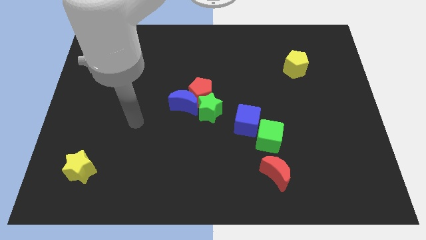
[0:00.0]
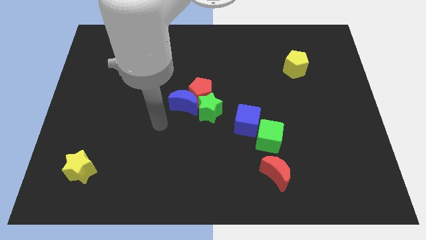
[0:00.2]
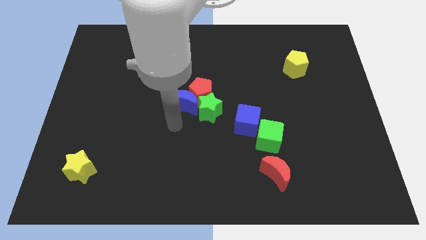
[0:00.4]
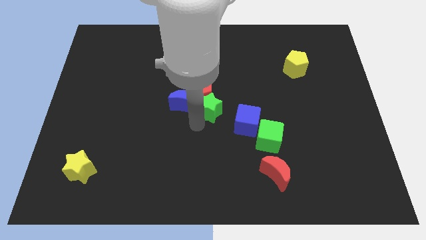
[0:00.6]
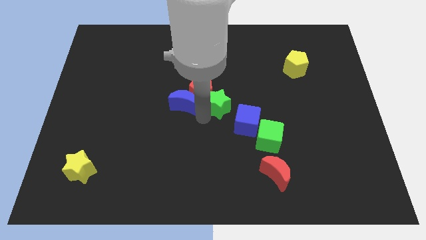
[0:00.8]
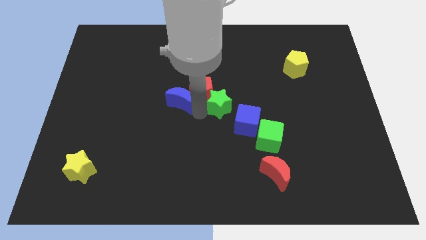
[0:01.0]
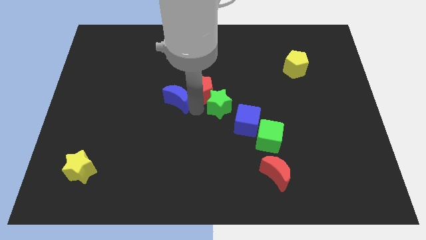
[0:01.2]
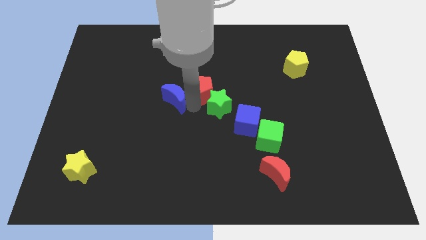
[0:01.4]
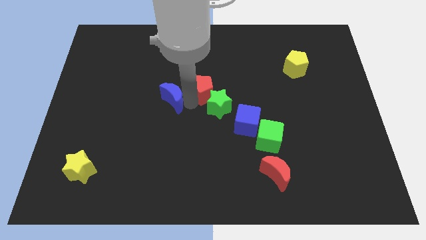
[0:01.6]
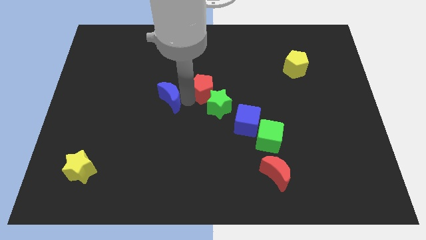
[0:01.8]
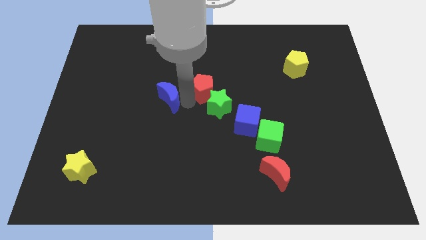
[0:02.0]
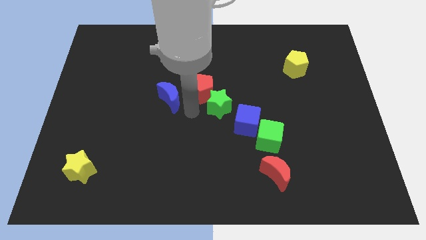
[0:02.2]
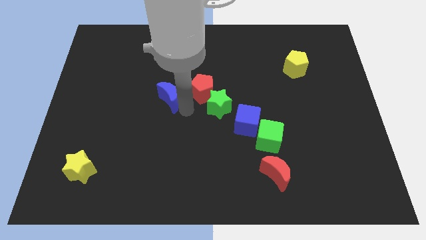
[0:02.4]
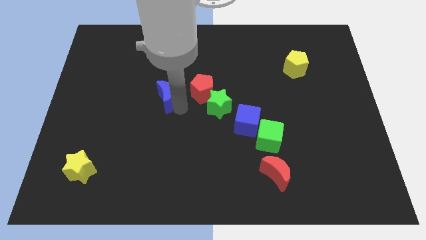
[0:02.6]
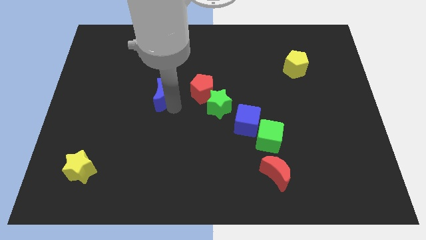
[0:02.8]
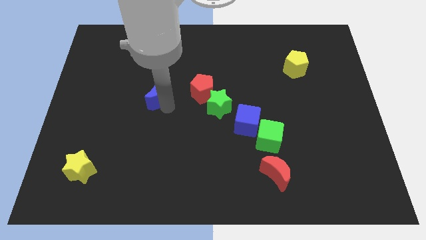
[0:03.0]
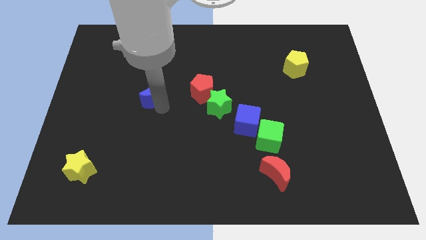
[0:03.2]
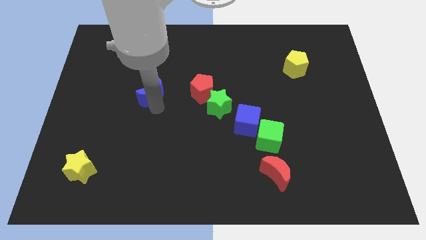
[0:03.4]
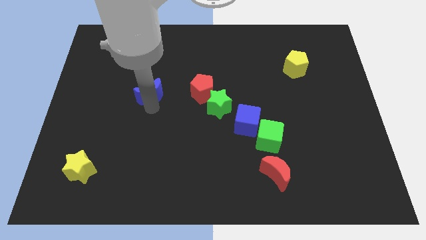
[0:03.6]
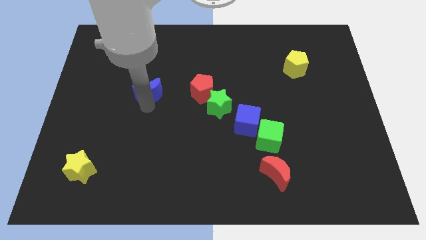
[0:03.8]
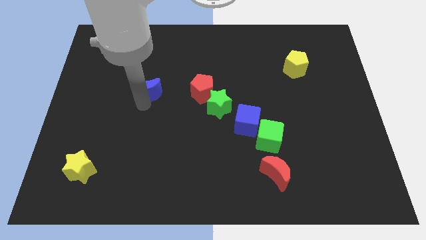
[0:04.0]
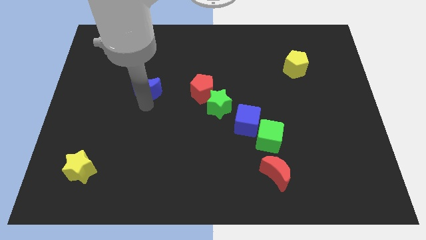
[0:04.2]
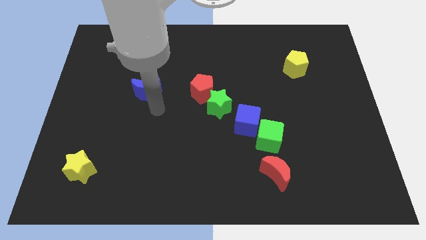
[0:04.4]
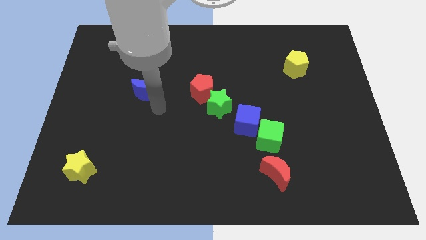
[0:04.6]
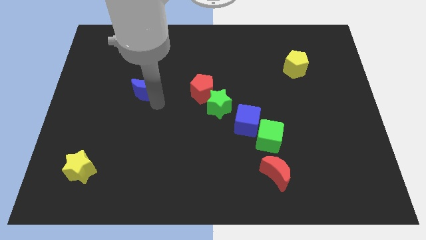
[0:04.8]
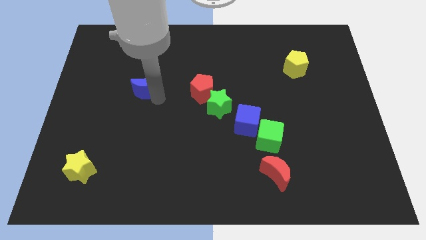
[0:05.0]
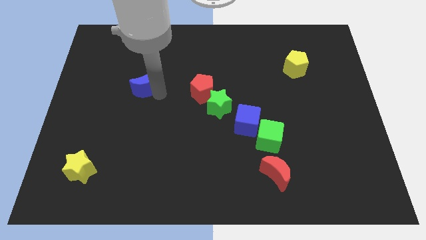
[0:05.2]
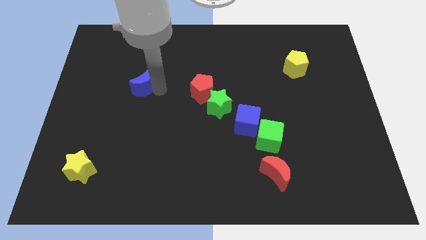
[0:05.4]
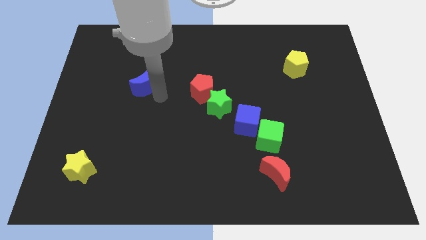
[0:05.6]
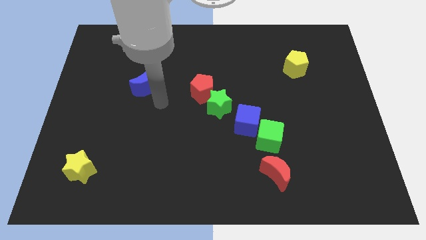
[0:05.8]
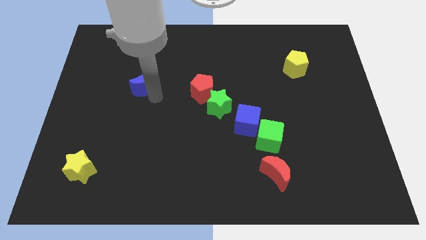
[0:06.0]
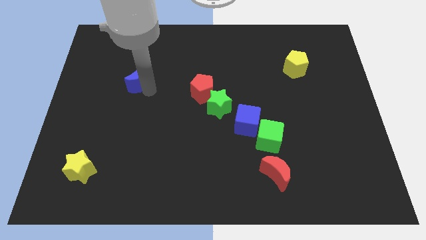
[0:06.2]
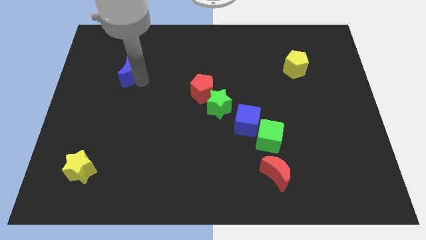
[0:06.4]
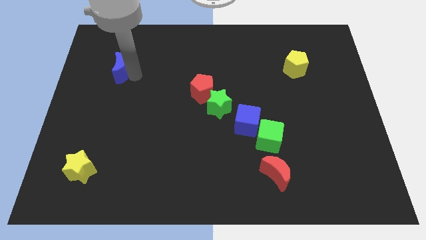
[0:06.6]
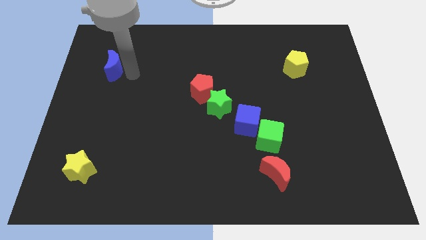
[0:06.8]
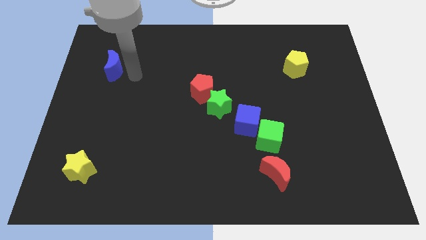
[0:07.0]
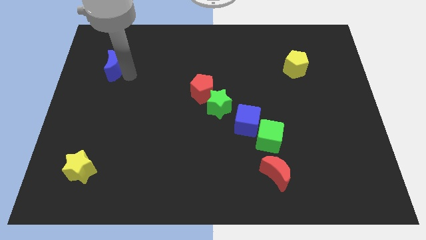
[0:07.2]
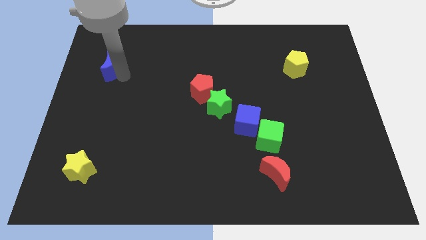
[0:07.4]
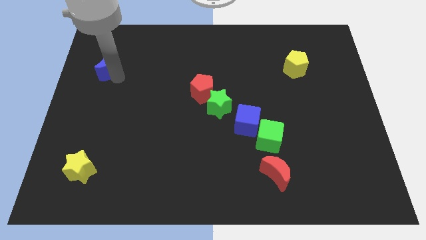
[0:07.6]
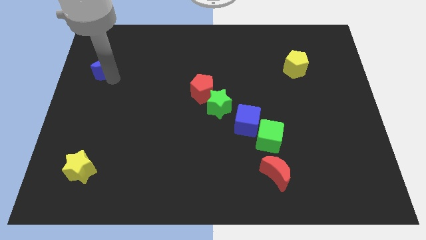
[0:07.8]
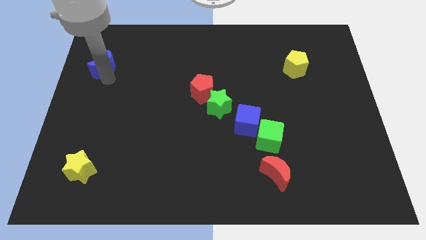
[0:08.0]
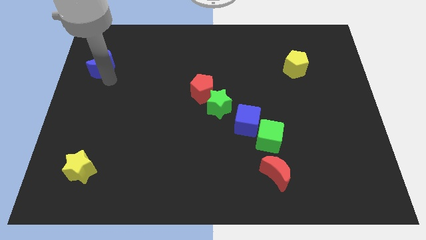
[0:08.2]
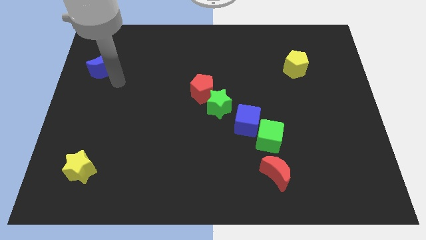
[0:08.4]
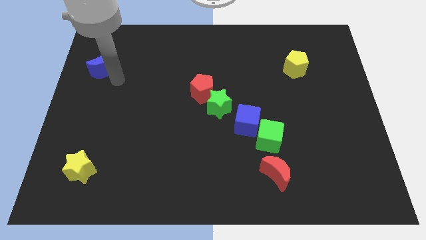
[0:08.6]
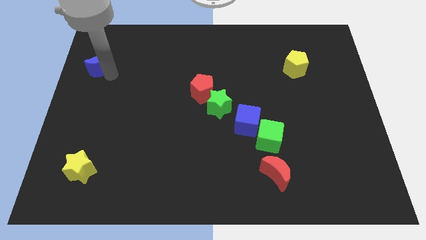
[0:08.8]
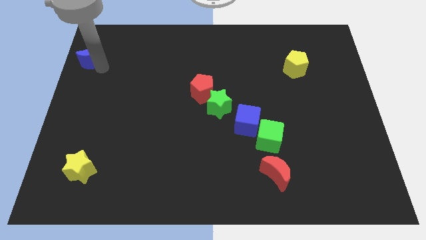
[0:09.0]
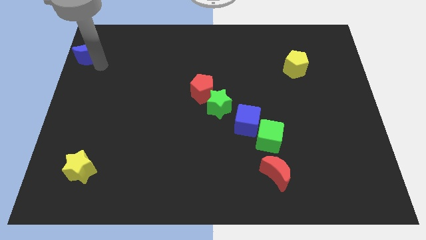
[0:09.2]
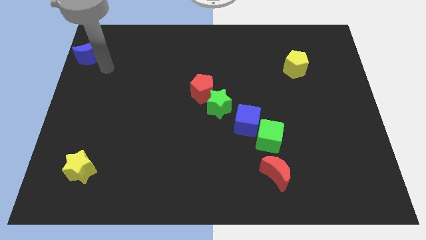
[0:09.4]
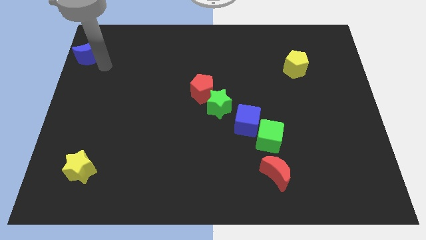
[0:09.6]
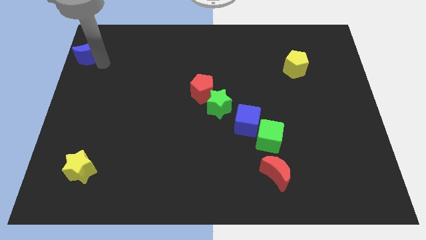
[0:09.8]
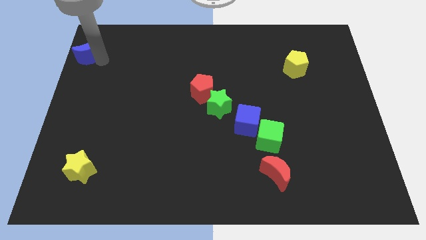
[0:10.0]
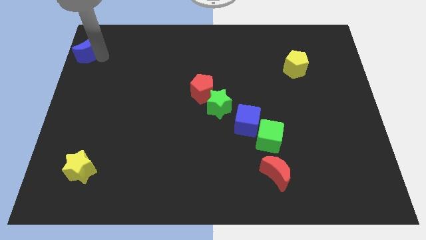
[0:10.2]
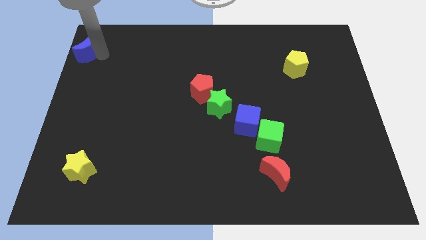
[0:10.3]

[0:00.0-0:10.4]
push the blue moon to the upper left corner

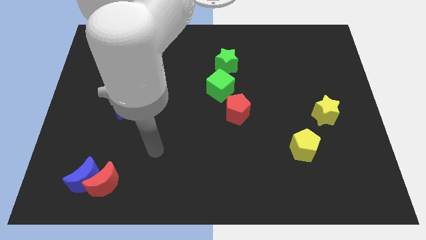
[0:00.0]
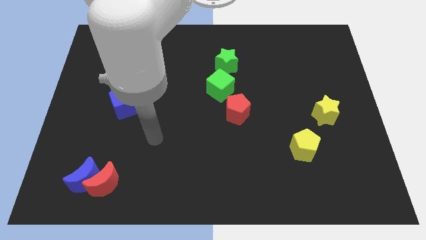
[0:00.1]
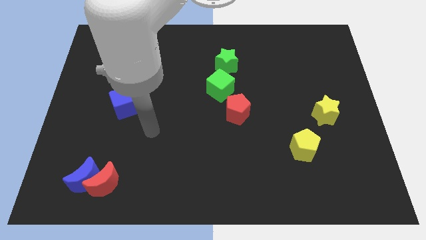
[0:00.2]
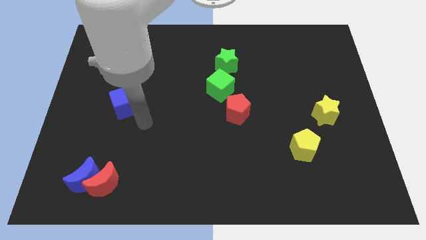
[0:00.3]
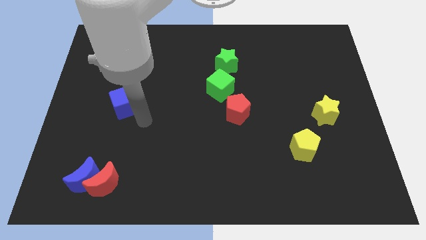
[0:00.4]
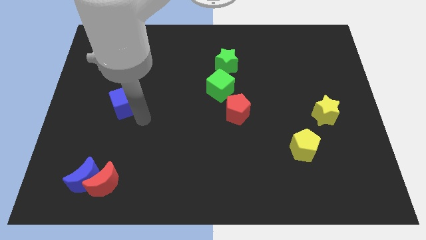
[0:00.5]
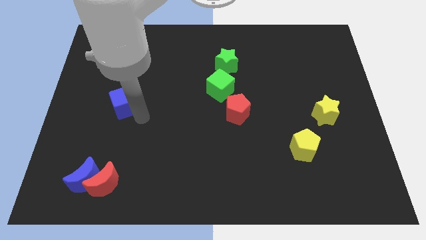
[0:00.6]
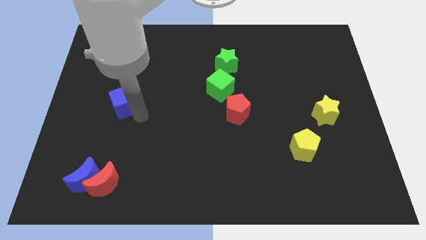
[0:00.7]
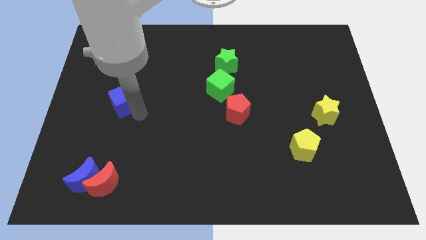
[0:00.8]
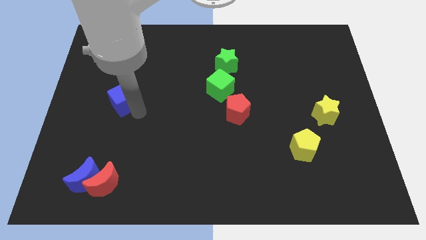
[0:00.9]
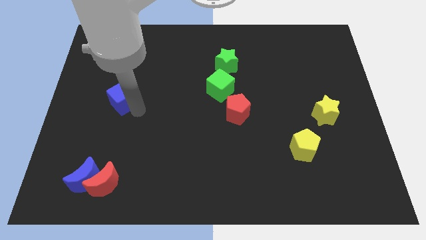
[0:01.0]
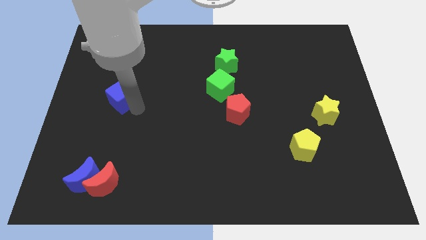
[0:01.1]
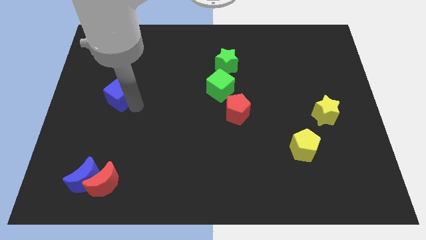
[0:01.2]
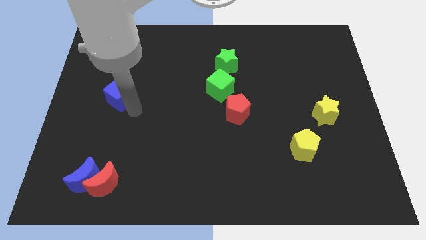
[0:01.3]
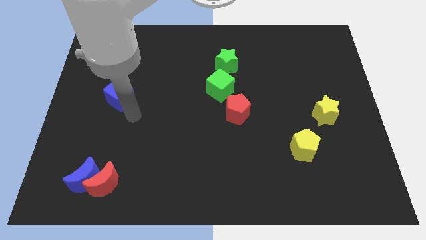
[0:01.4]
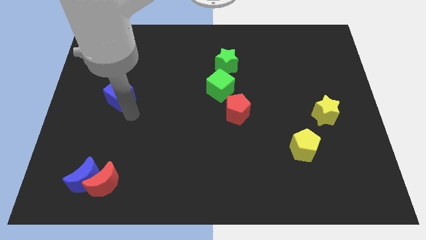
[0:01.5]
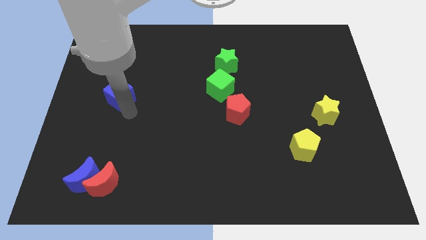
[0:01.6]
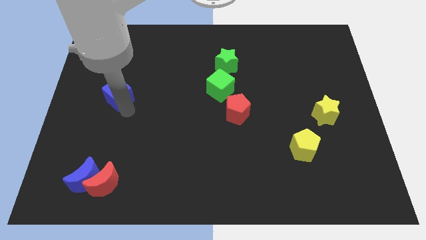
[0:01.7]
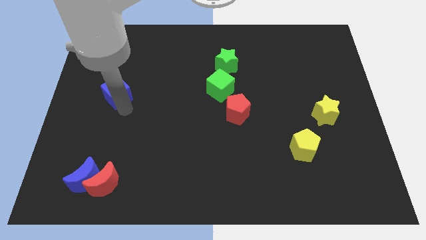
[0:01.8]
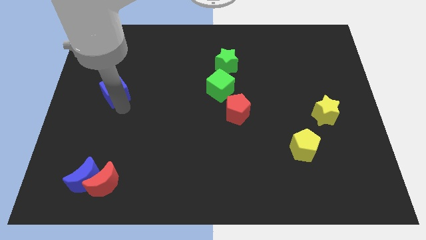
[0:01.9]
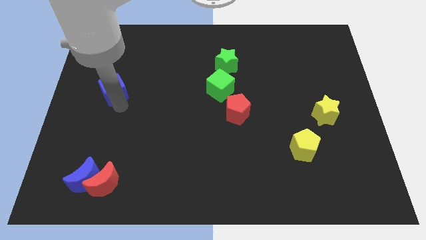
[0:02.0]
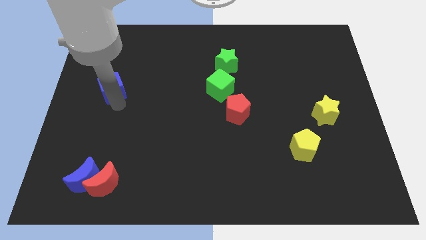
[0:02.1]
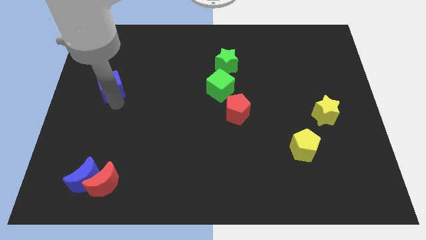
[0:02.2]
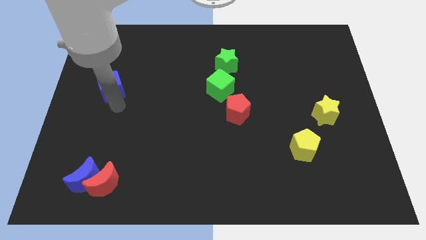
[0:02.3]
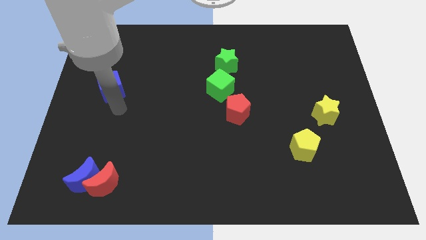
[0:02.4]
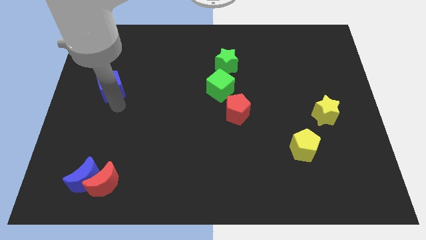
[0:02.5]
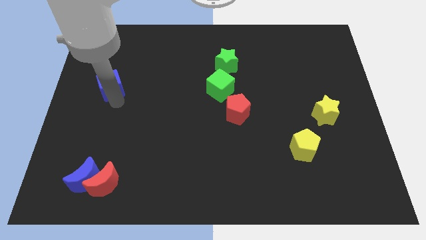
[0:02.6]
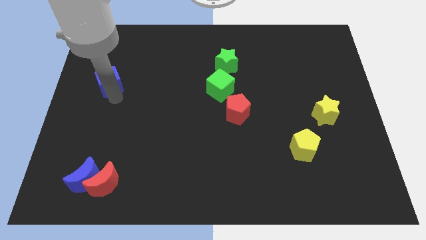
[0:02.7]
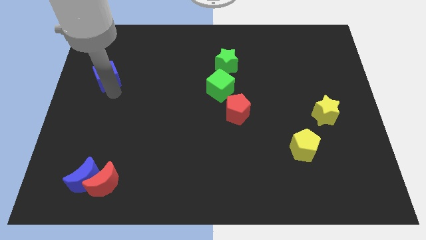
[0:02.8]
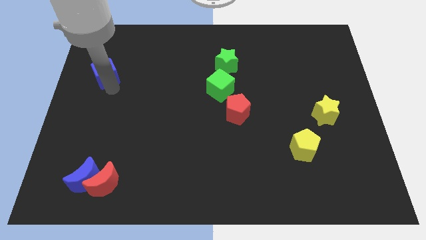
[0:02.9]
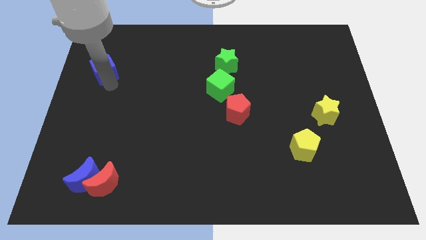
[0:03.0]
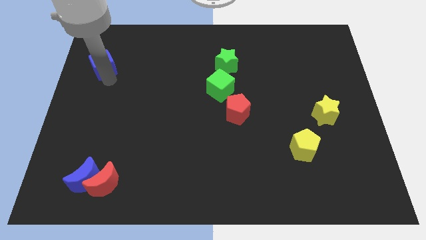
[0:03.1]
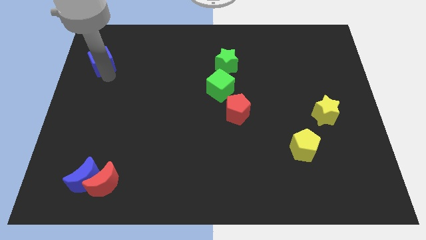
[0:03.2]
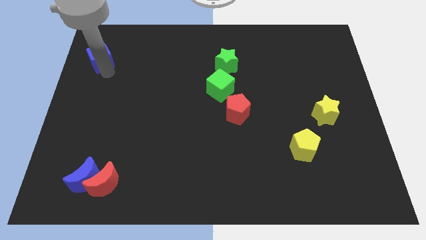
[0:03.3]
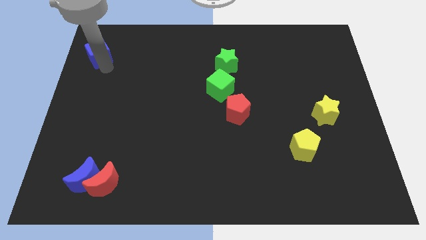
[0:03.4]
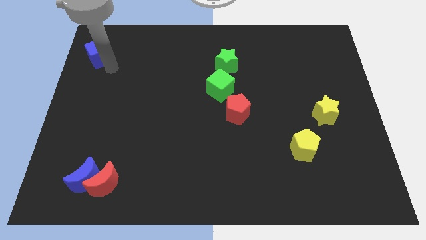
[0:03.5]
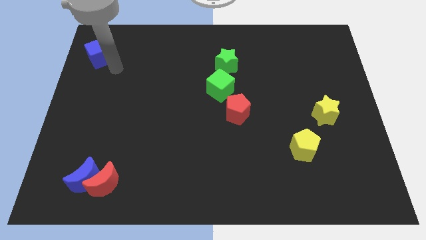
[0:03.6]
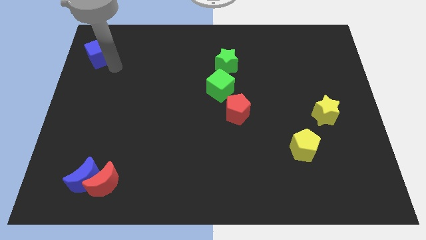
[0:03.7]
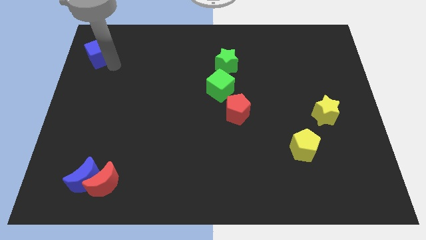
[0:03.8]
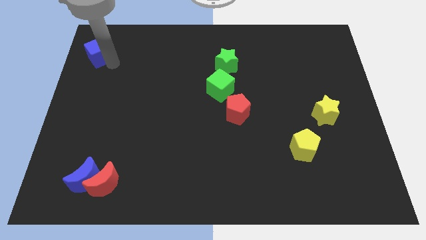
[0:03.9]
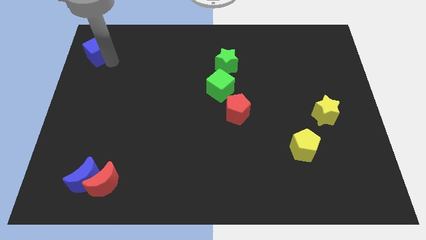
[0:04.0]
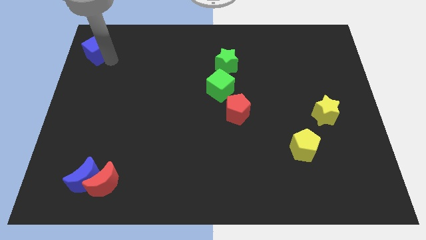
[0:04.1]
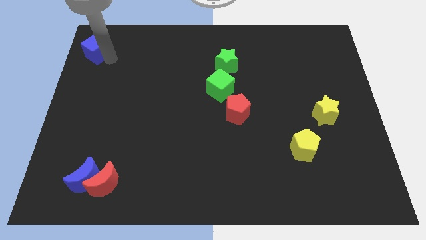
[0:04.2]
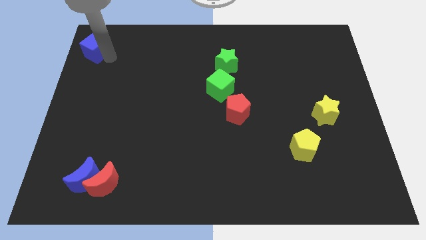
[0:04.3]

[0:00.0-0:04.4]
move the blue cube to the top left corner
